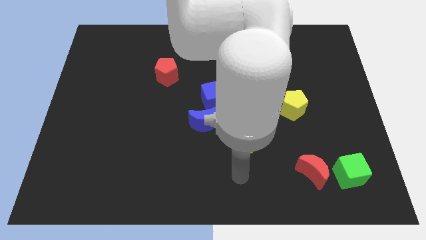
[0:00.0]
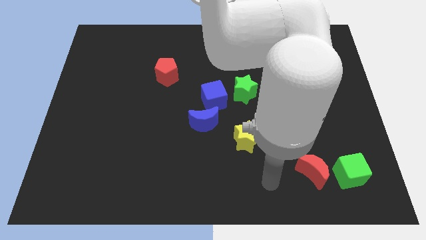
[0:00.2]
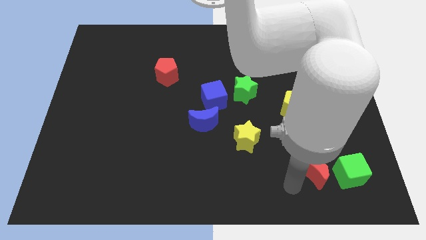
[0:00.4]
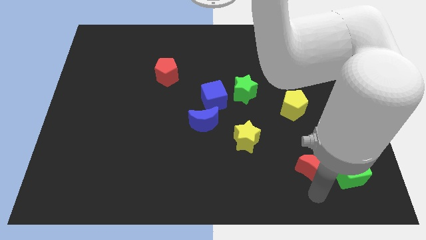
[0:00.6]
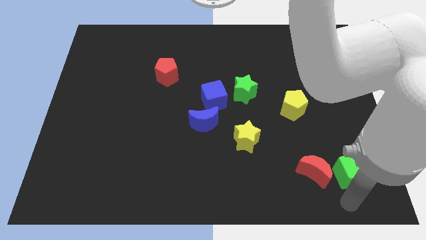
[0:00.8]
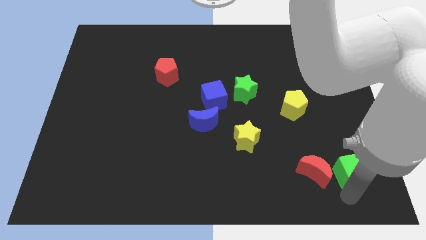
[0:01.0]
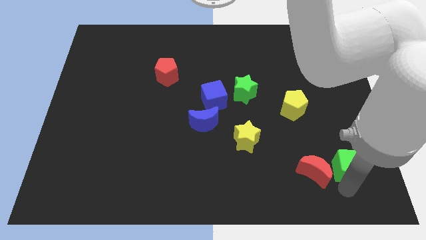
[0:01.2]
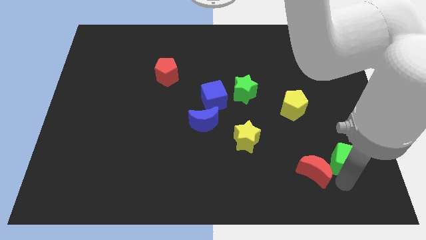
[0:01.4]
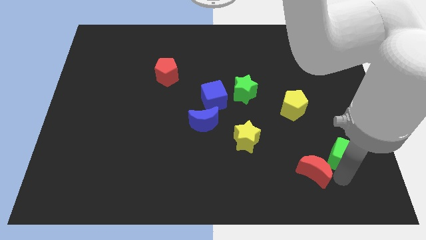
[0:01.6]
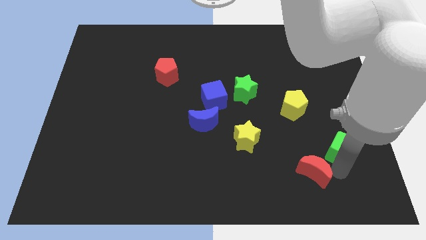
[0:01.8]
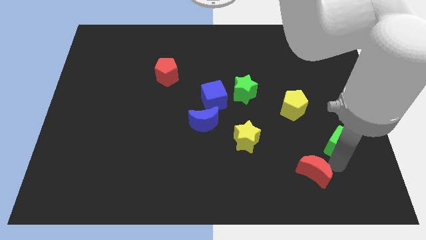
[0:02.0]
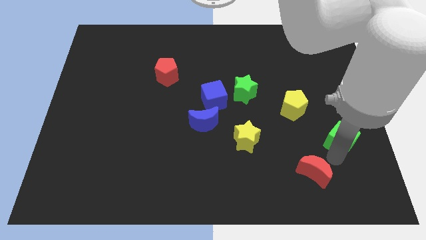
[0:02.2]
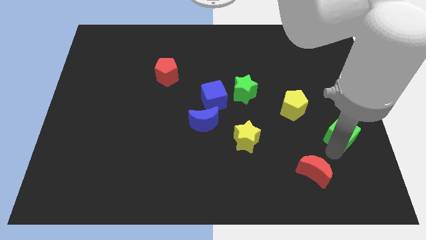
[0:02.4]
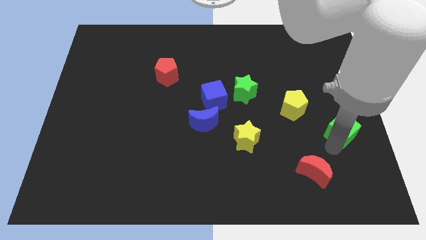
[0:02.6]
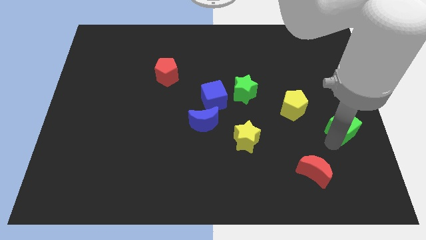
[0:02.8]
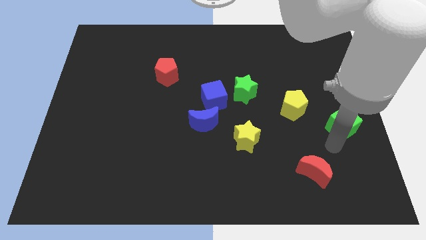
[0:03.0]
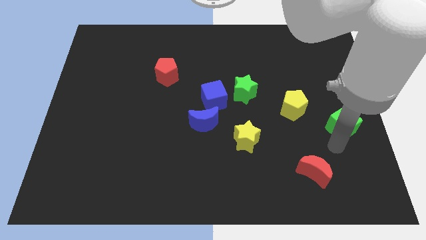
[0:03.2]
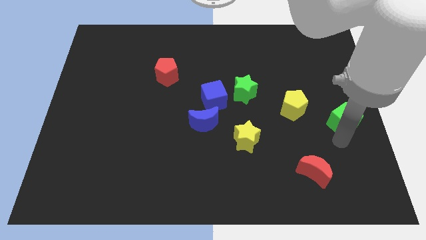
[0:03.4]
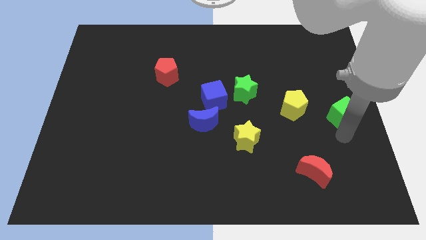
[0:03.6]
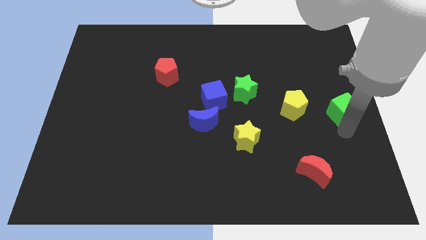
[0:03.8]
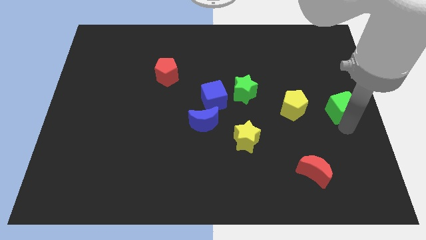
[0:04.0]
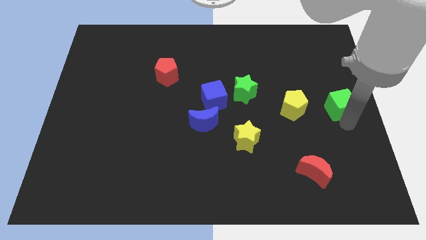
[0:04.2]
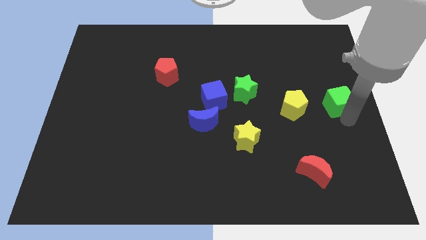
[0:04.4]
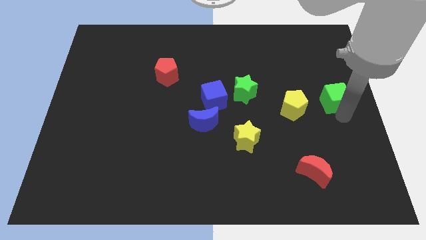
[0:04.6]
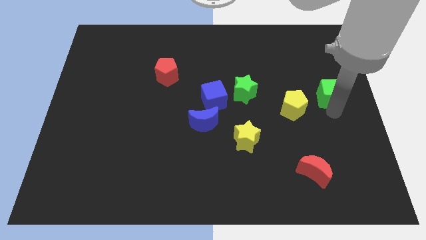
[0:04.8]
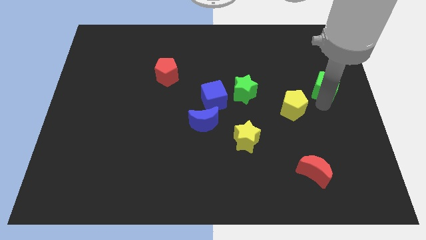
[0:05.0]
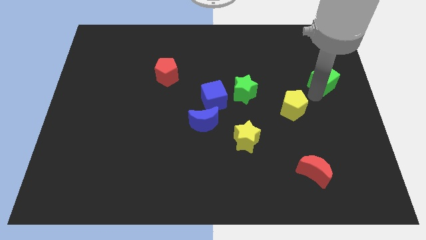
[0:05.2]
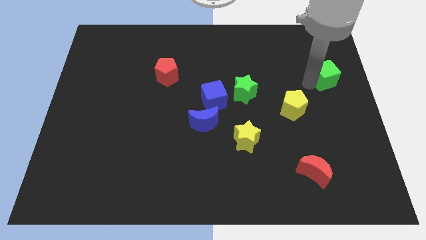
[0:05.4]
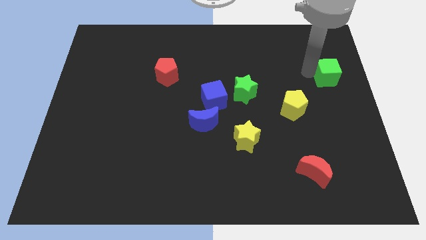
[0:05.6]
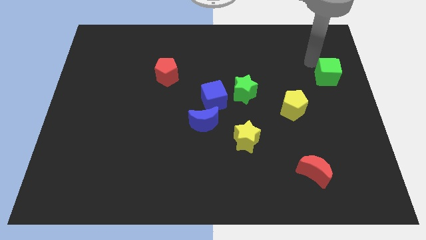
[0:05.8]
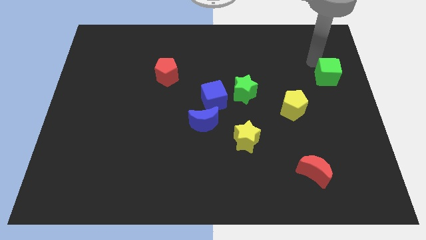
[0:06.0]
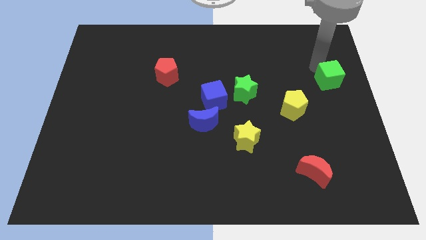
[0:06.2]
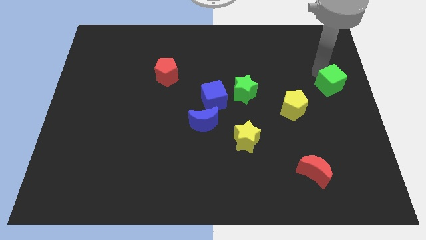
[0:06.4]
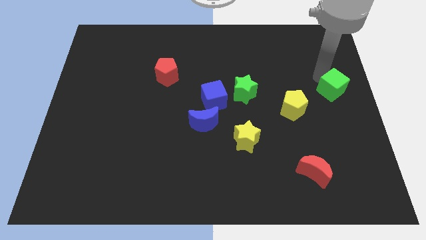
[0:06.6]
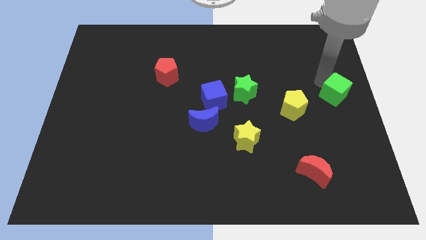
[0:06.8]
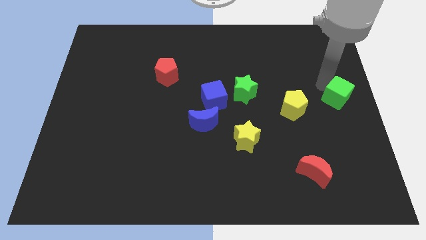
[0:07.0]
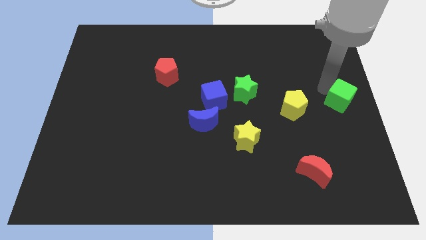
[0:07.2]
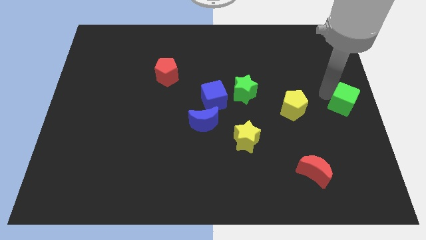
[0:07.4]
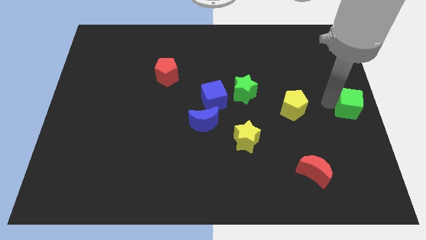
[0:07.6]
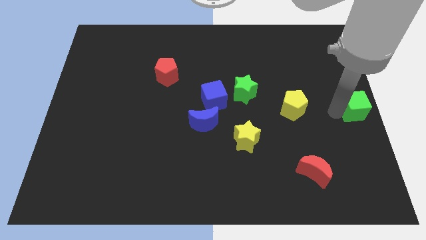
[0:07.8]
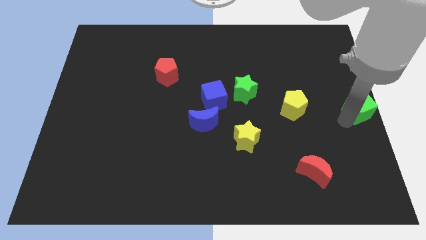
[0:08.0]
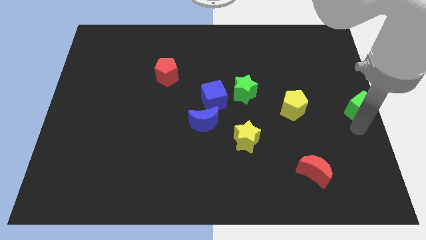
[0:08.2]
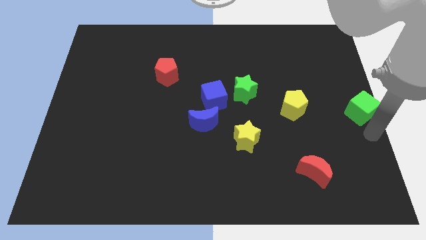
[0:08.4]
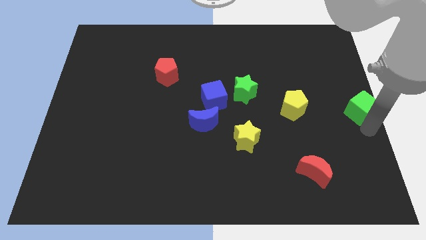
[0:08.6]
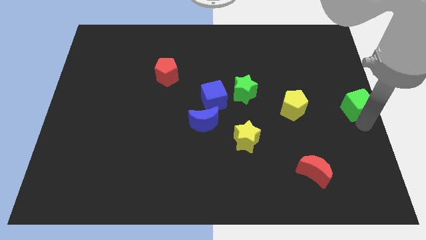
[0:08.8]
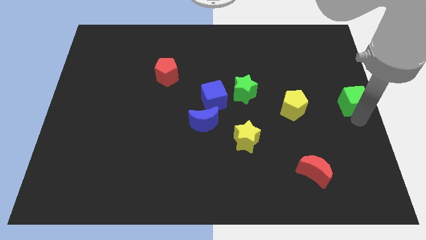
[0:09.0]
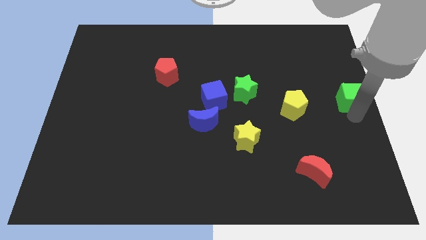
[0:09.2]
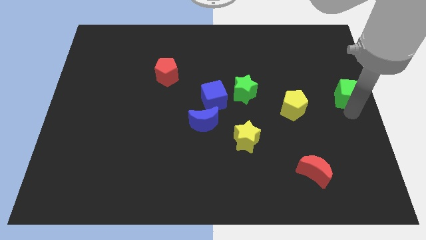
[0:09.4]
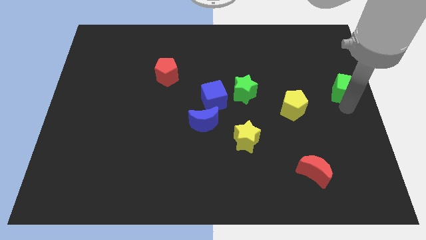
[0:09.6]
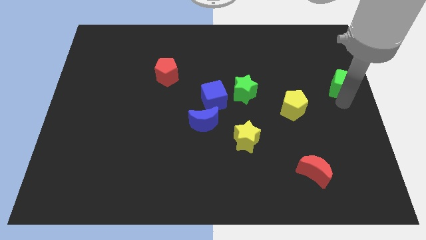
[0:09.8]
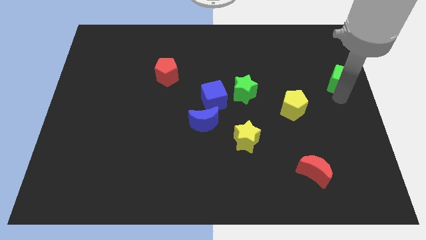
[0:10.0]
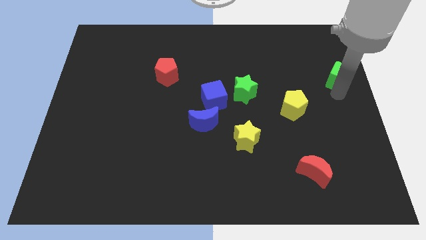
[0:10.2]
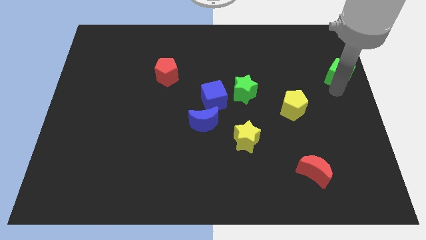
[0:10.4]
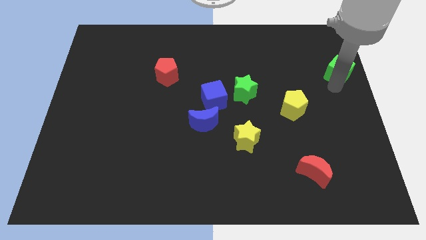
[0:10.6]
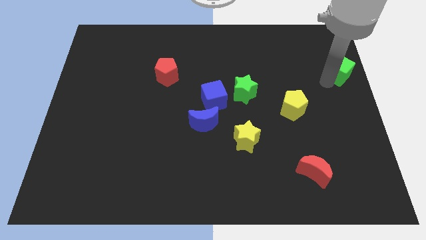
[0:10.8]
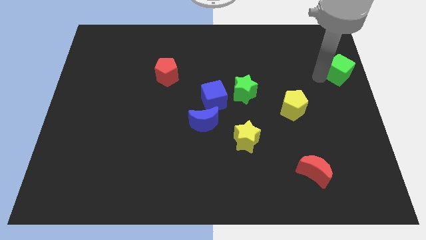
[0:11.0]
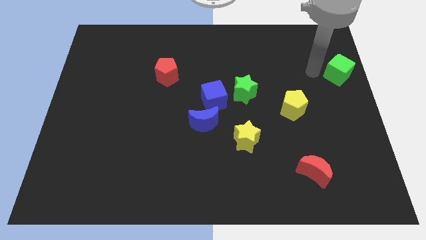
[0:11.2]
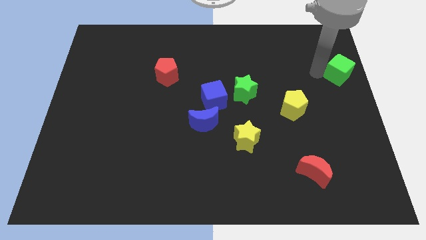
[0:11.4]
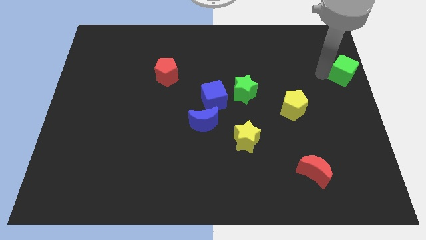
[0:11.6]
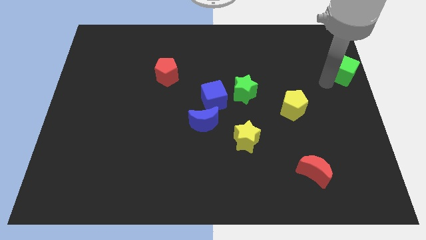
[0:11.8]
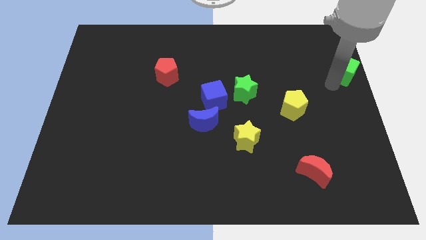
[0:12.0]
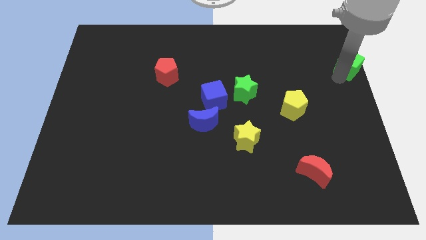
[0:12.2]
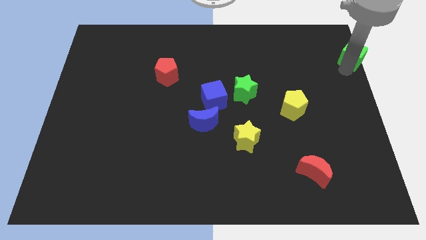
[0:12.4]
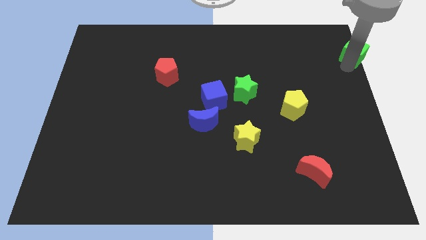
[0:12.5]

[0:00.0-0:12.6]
move the green cube to the upper right corner
